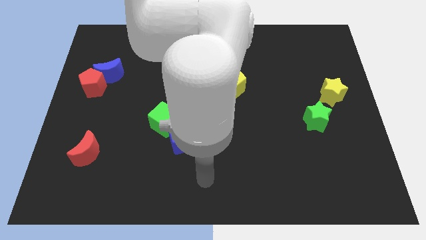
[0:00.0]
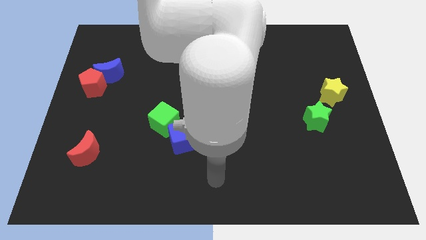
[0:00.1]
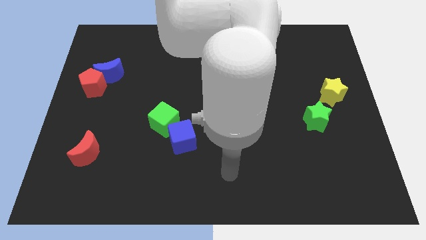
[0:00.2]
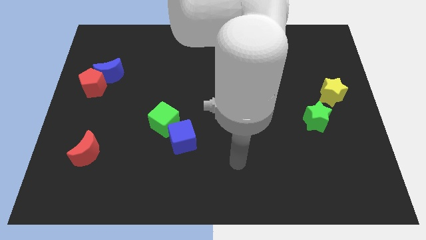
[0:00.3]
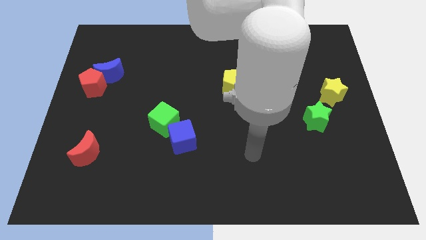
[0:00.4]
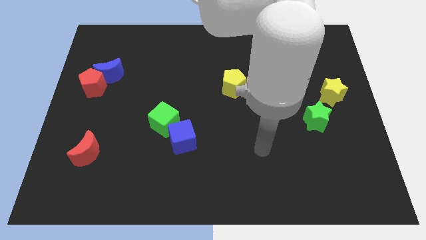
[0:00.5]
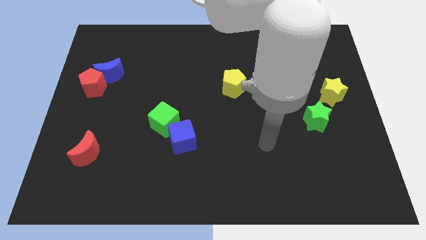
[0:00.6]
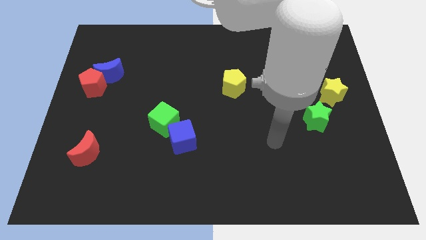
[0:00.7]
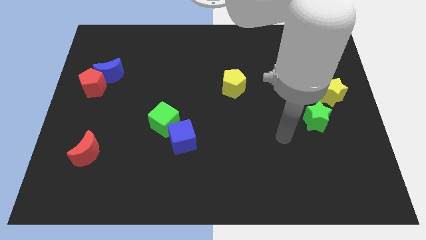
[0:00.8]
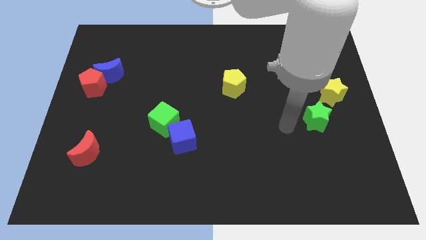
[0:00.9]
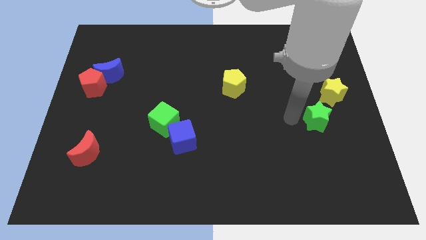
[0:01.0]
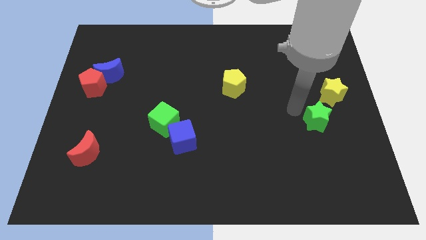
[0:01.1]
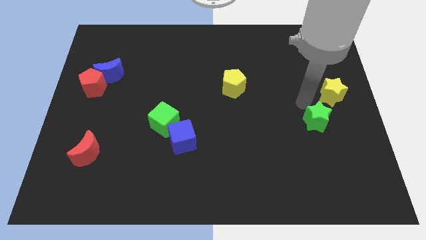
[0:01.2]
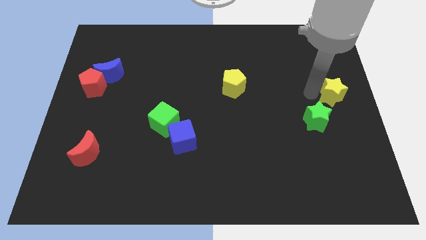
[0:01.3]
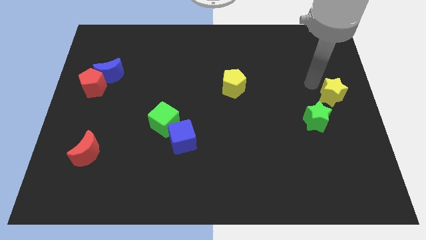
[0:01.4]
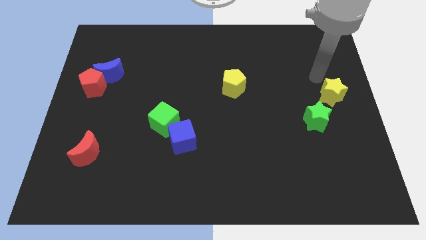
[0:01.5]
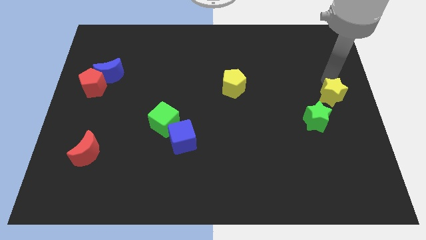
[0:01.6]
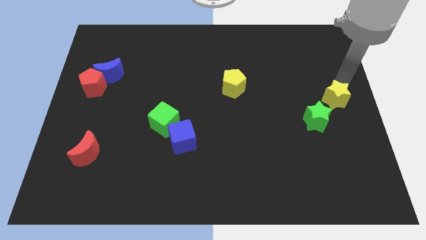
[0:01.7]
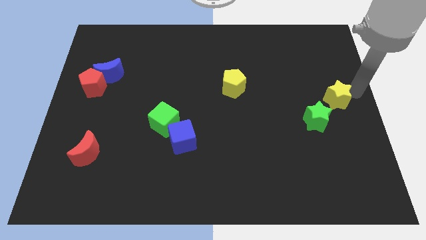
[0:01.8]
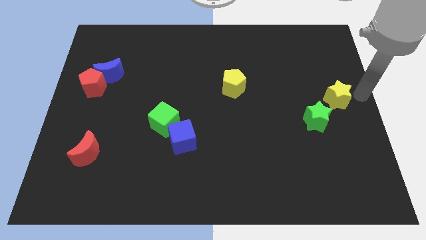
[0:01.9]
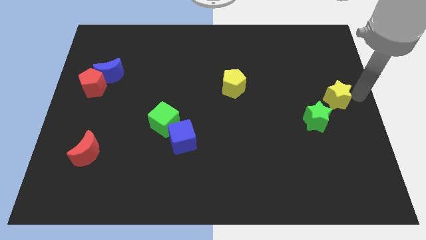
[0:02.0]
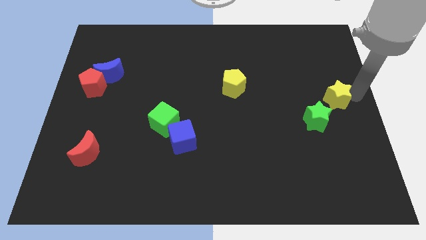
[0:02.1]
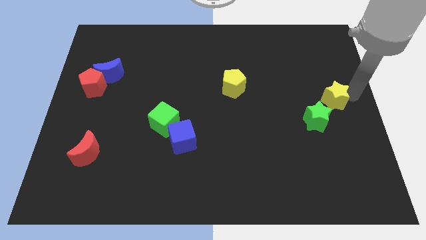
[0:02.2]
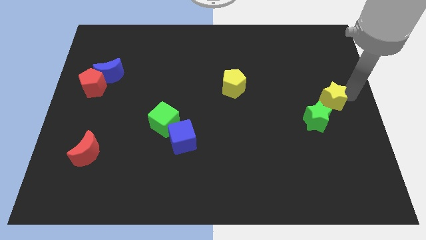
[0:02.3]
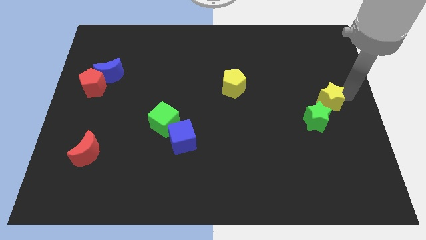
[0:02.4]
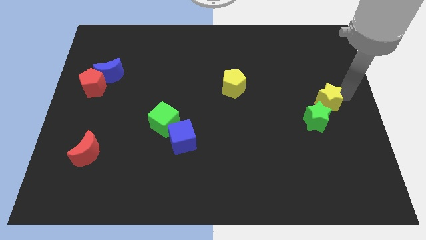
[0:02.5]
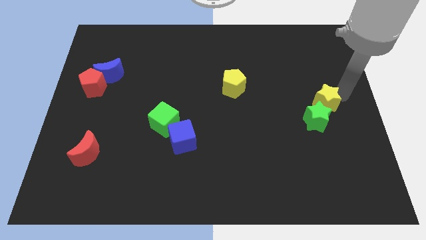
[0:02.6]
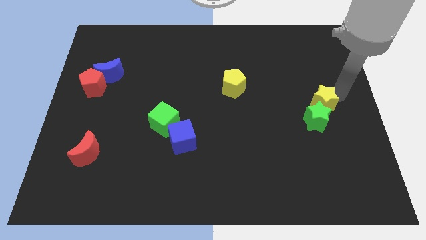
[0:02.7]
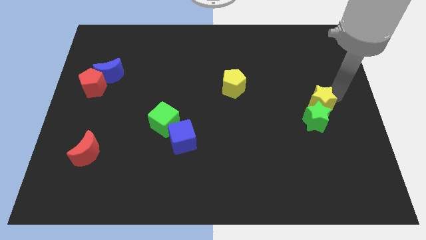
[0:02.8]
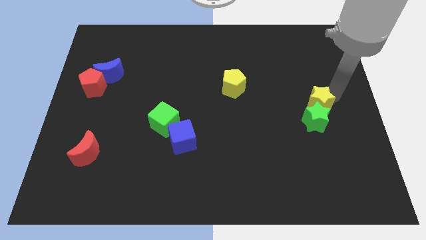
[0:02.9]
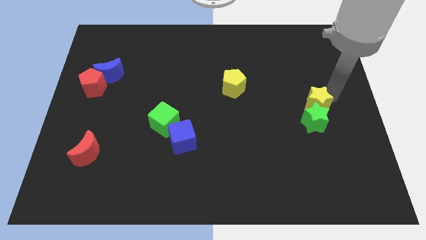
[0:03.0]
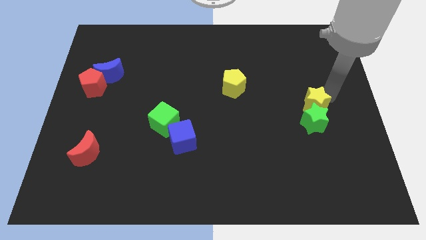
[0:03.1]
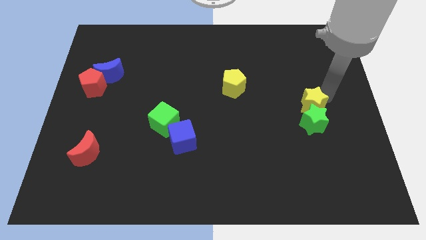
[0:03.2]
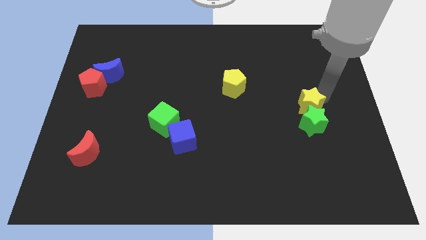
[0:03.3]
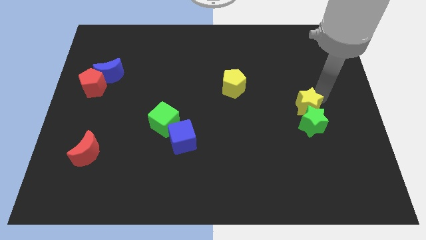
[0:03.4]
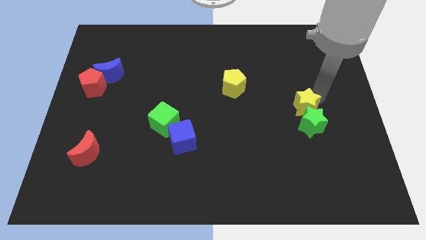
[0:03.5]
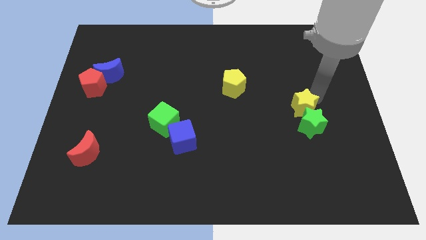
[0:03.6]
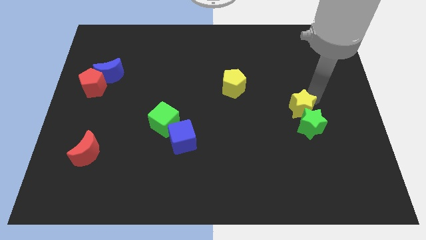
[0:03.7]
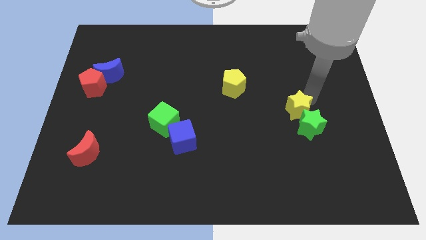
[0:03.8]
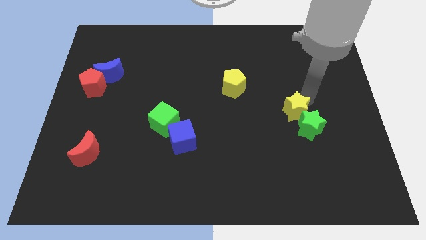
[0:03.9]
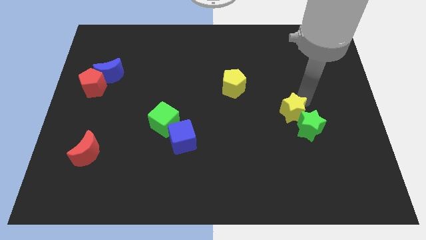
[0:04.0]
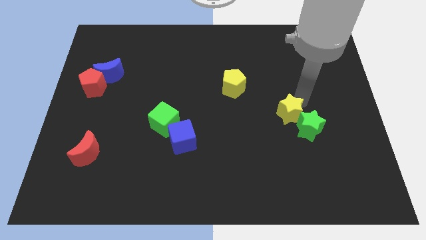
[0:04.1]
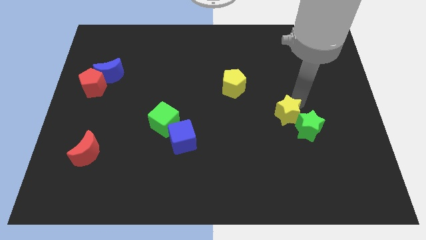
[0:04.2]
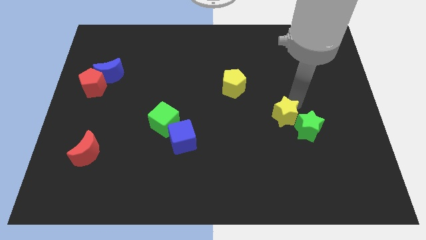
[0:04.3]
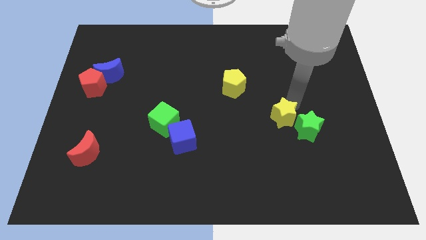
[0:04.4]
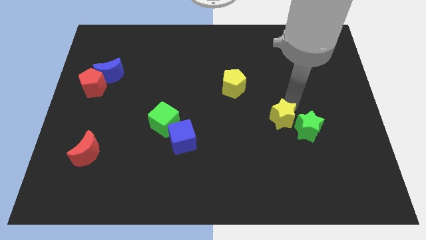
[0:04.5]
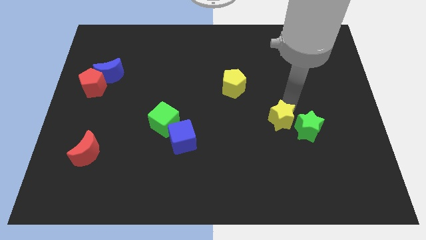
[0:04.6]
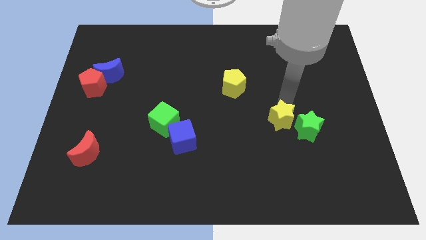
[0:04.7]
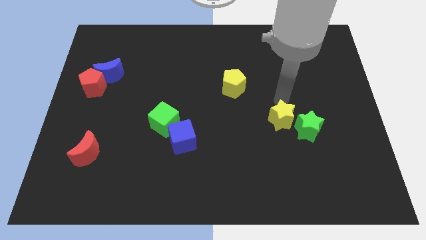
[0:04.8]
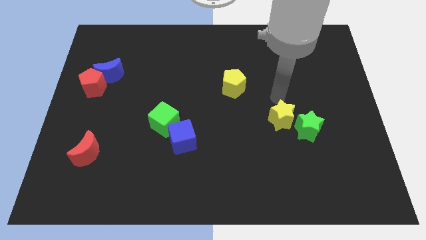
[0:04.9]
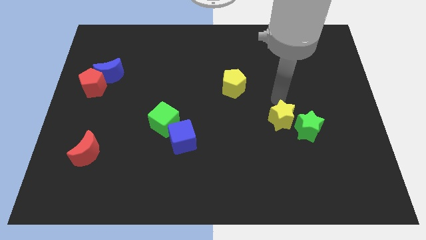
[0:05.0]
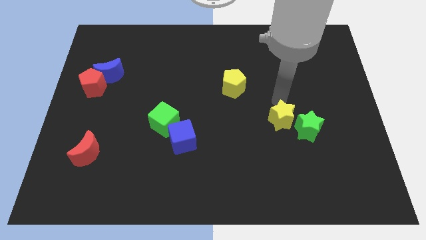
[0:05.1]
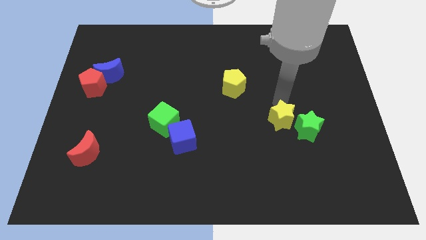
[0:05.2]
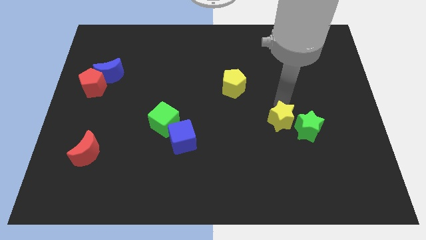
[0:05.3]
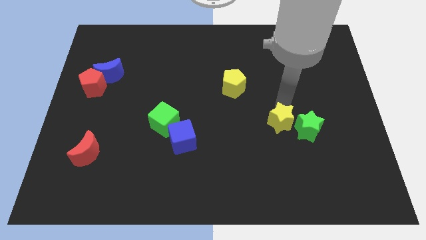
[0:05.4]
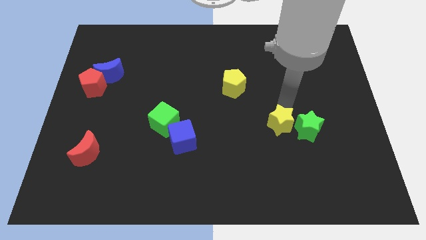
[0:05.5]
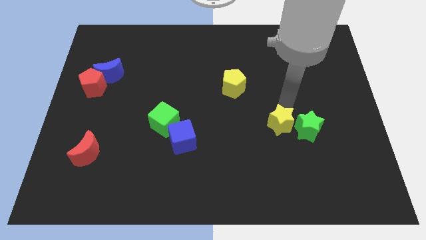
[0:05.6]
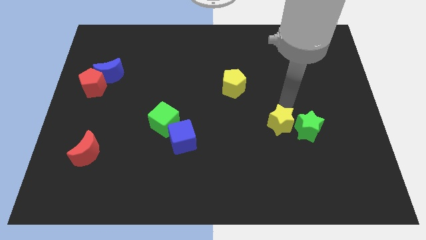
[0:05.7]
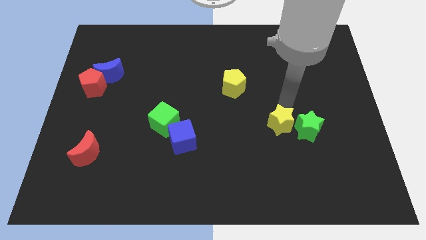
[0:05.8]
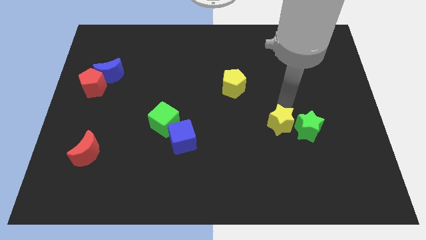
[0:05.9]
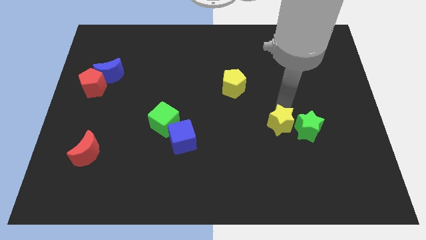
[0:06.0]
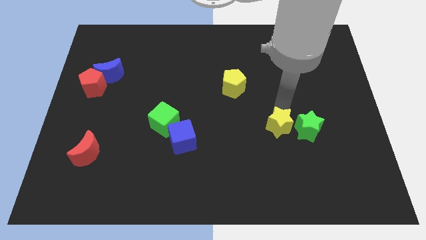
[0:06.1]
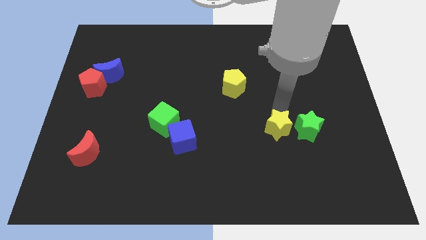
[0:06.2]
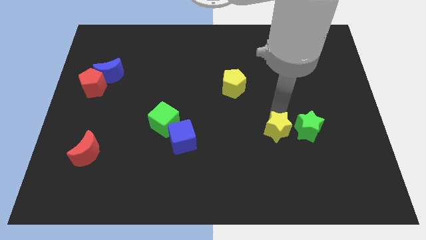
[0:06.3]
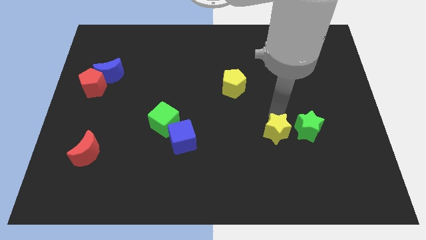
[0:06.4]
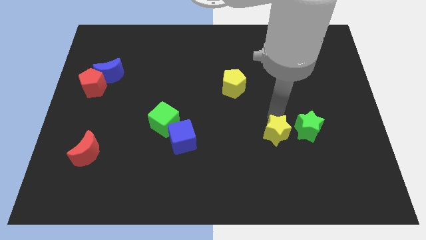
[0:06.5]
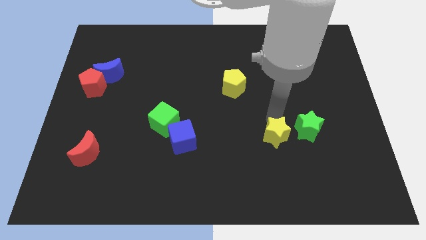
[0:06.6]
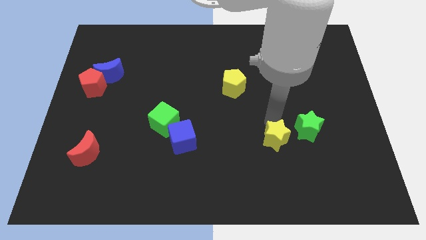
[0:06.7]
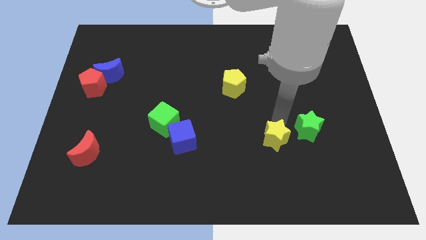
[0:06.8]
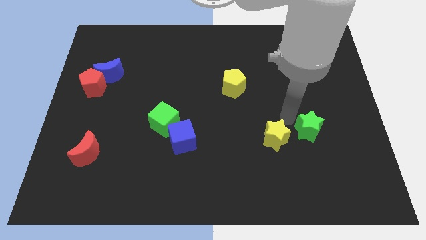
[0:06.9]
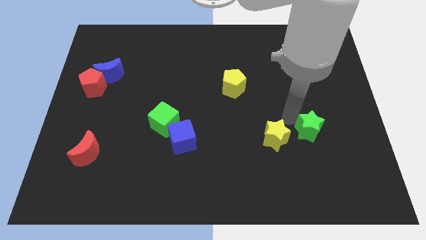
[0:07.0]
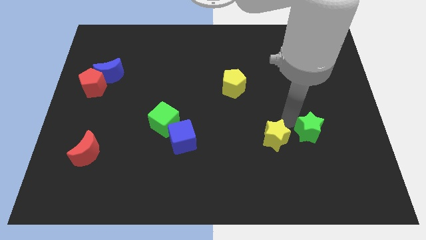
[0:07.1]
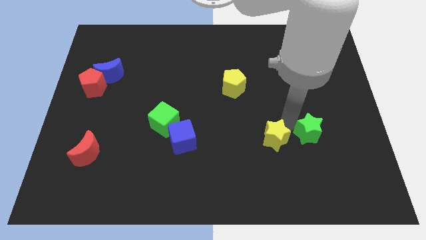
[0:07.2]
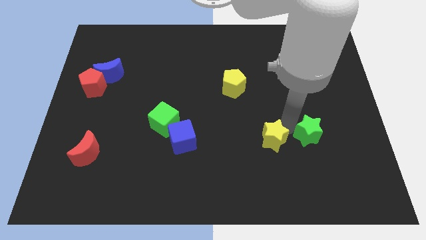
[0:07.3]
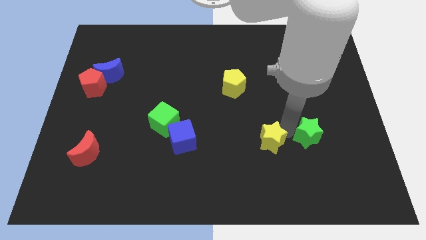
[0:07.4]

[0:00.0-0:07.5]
push the yellow star down and left diagonally

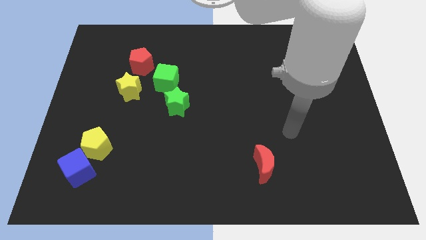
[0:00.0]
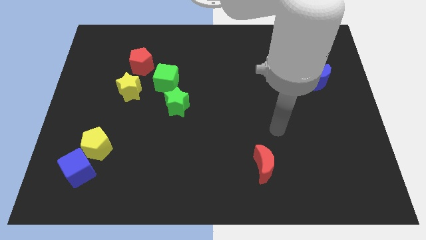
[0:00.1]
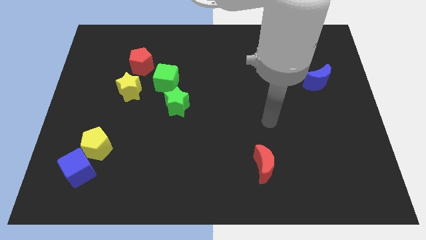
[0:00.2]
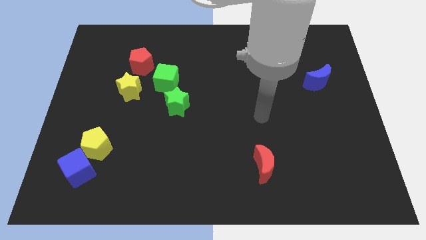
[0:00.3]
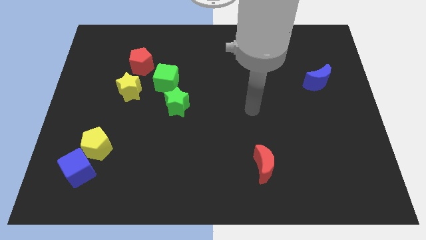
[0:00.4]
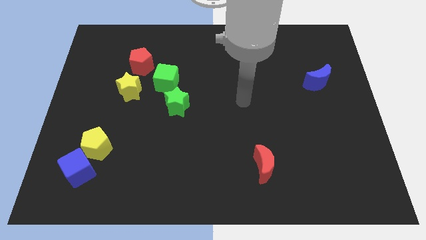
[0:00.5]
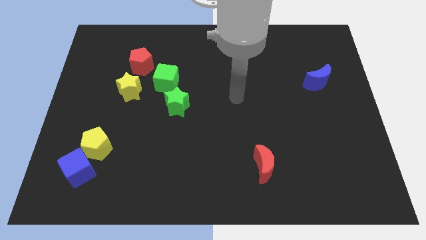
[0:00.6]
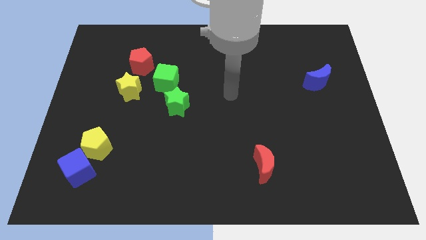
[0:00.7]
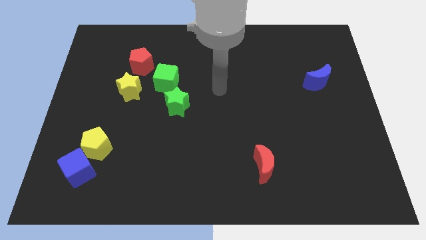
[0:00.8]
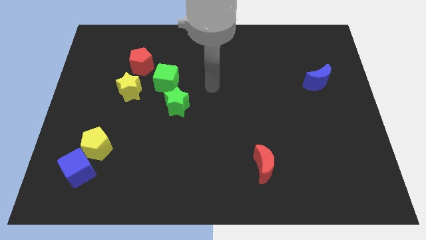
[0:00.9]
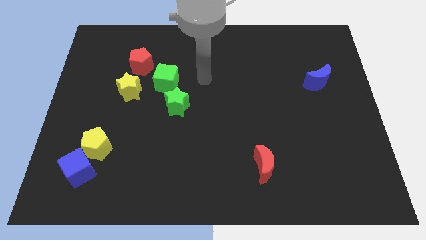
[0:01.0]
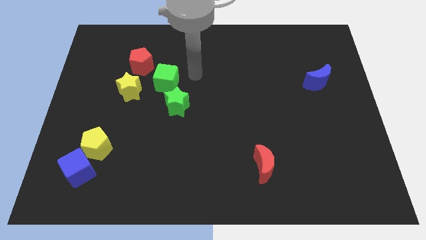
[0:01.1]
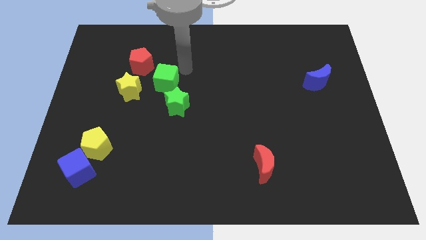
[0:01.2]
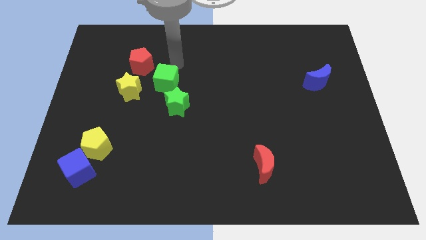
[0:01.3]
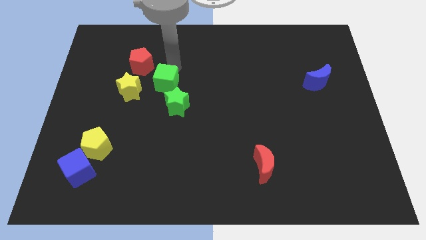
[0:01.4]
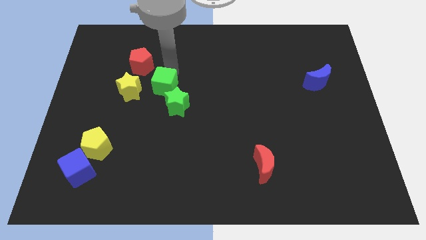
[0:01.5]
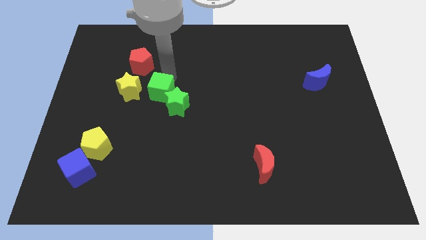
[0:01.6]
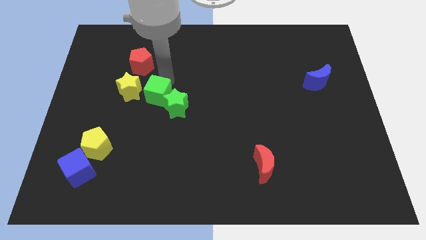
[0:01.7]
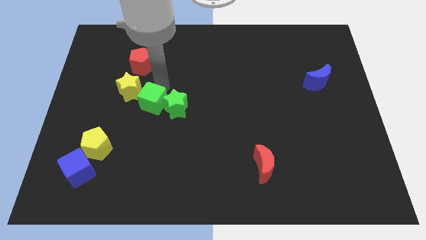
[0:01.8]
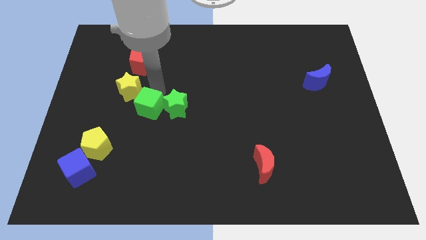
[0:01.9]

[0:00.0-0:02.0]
slightly slide the green cube downwards
